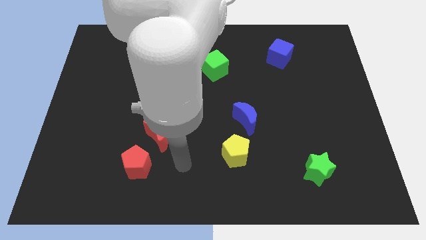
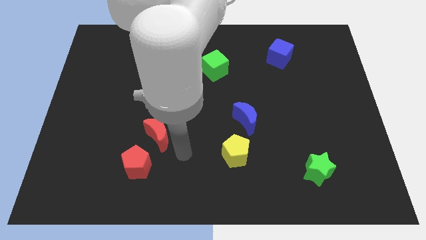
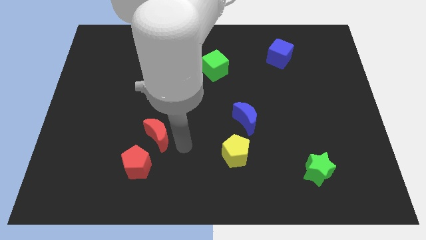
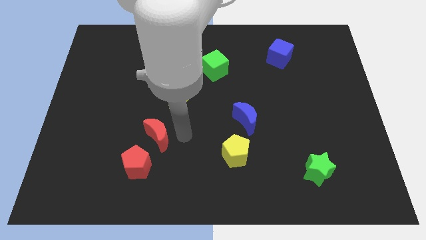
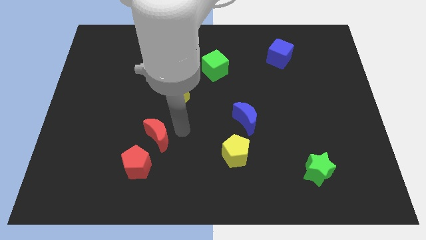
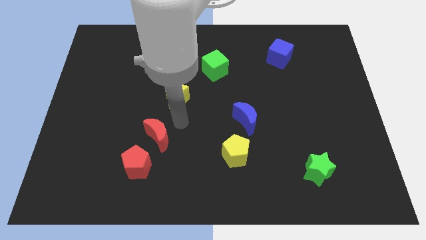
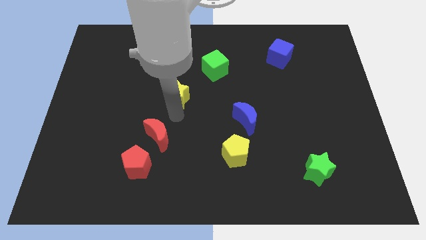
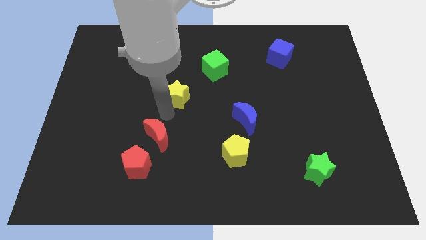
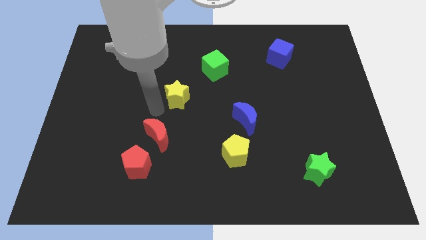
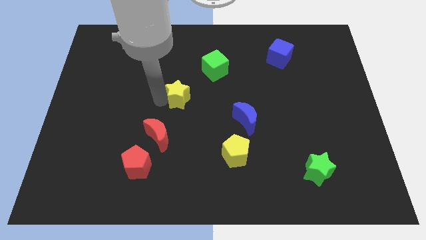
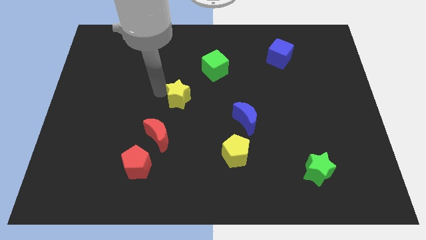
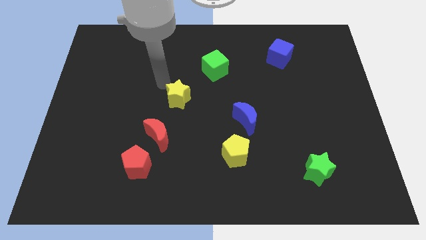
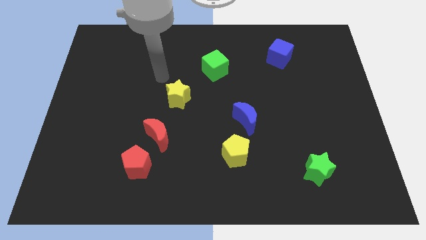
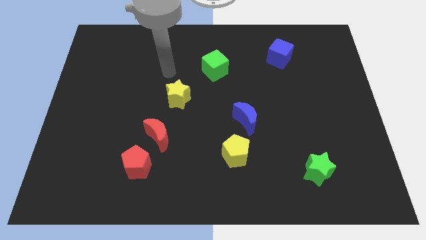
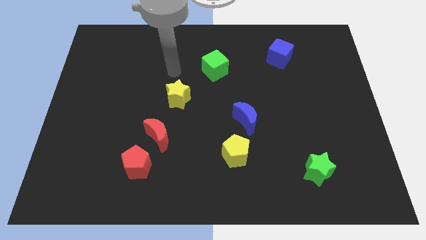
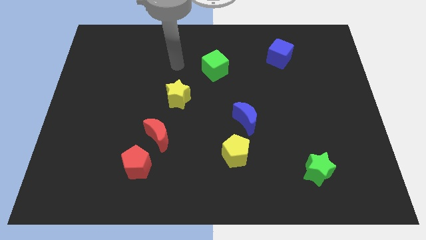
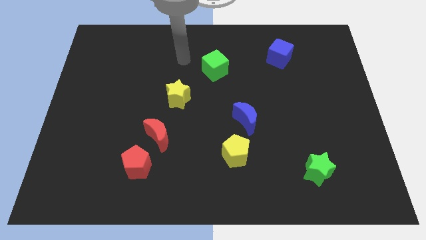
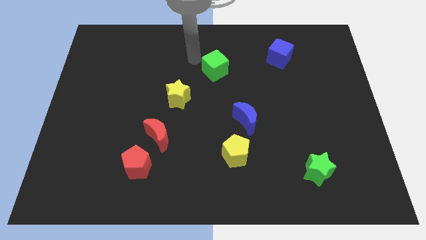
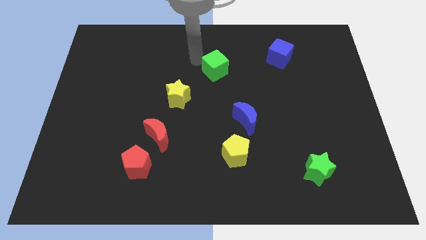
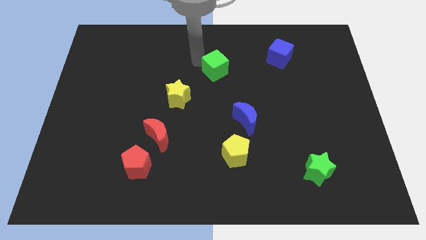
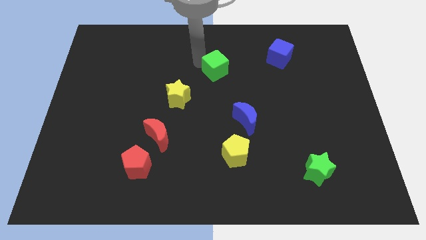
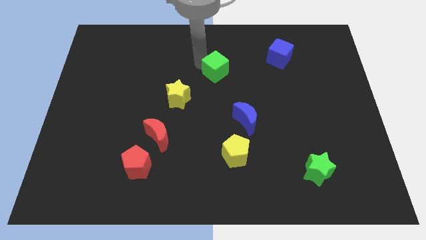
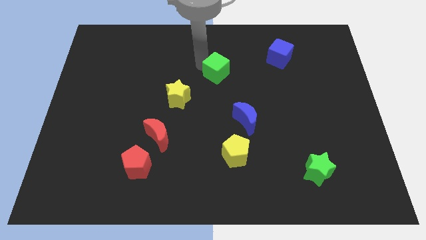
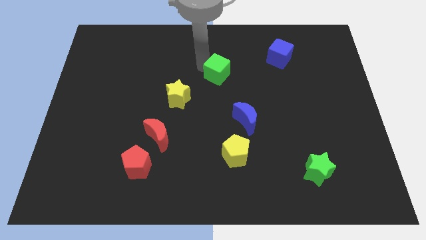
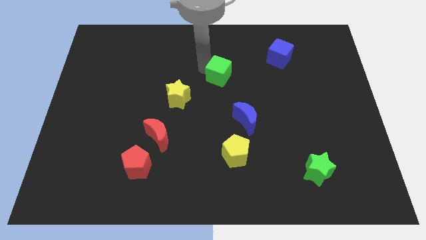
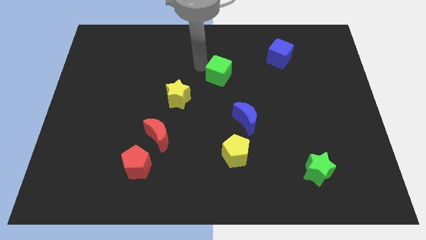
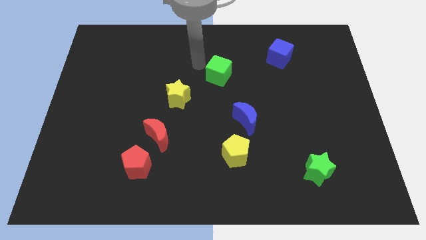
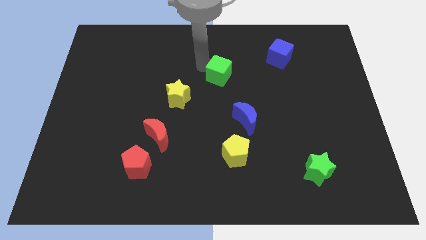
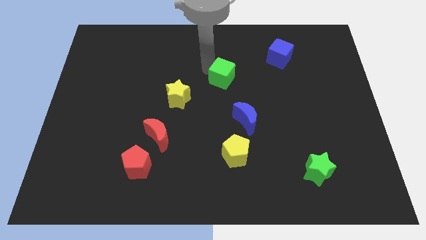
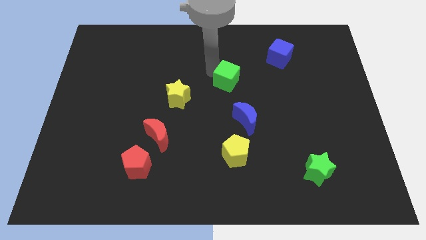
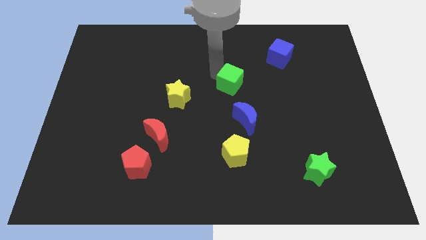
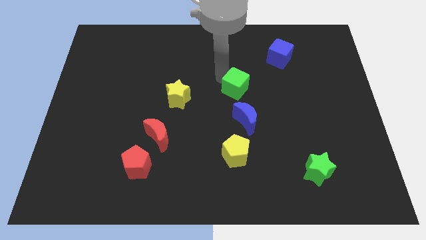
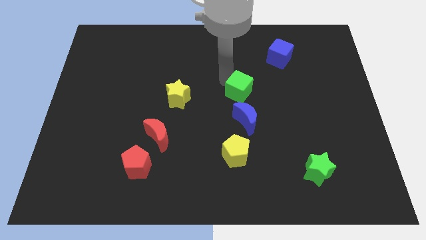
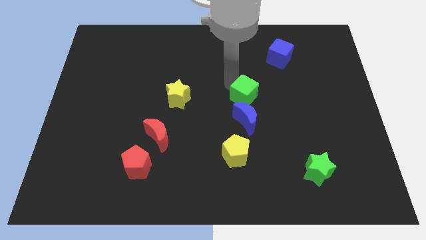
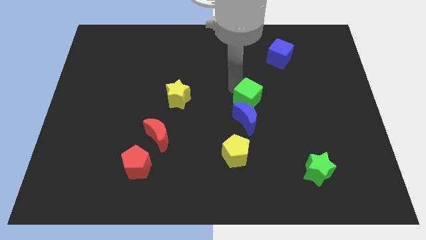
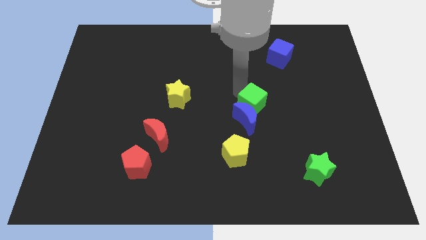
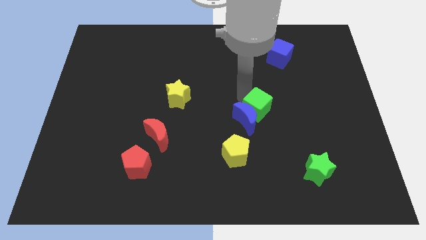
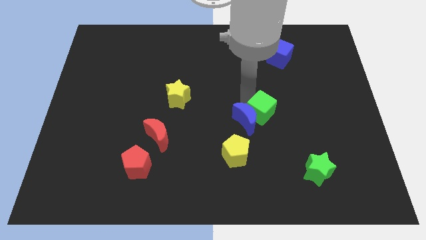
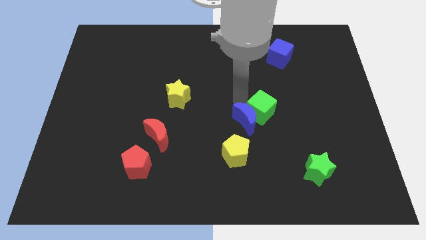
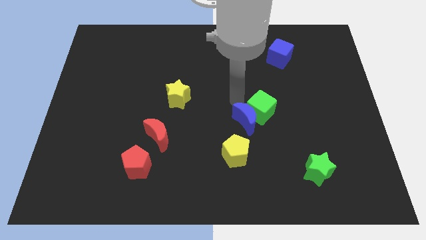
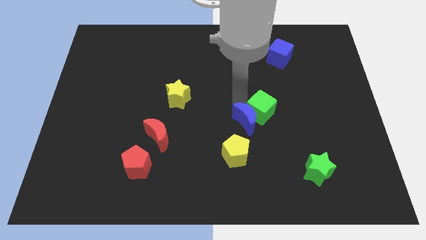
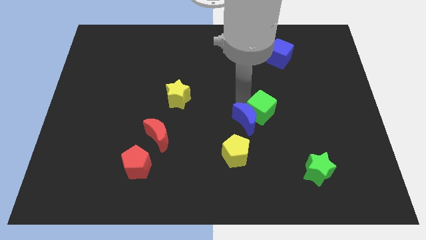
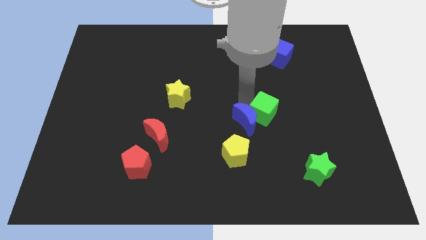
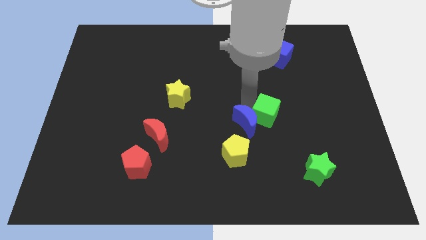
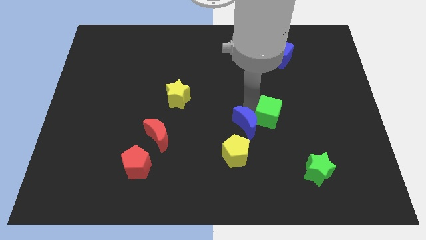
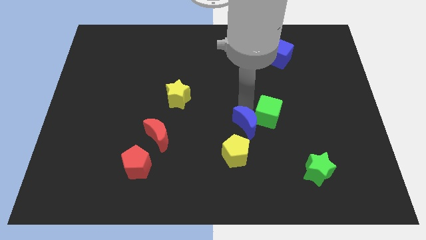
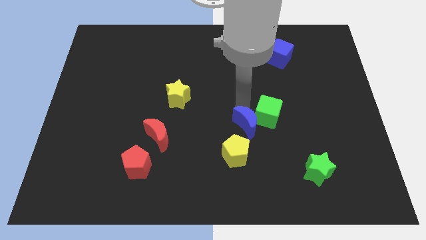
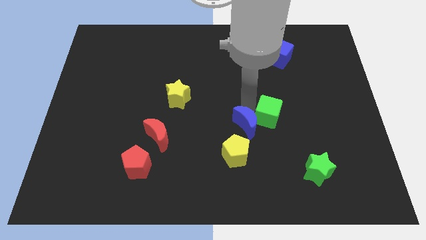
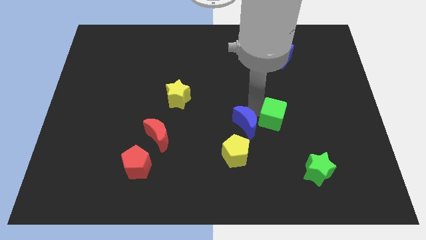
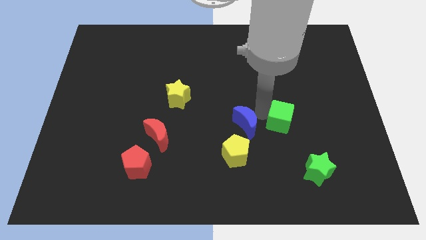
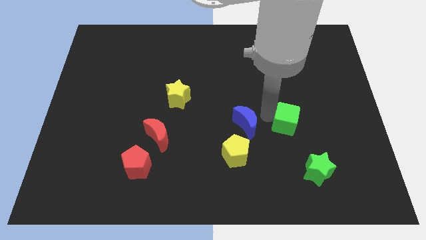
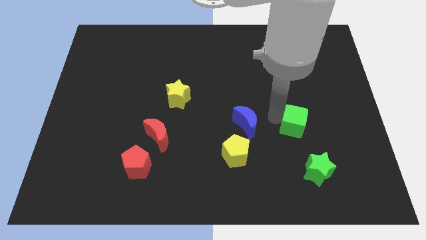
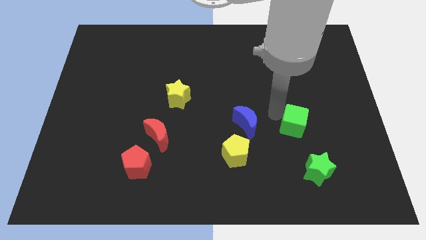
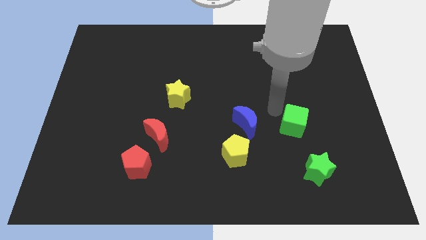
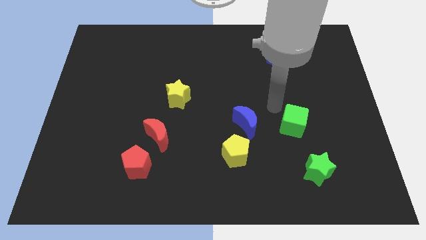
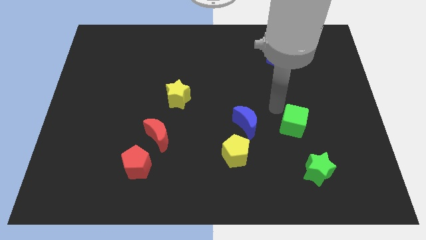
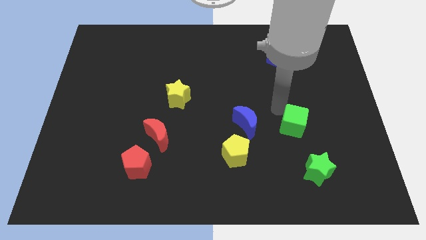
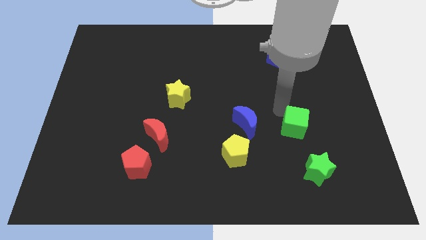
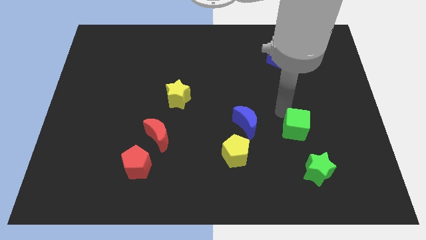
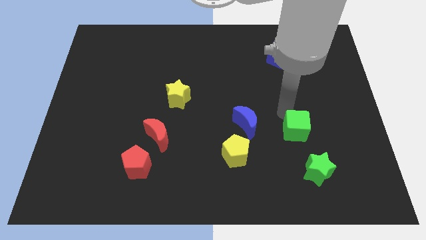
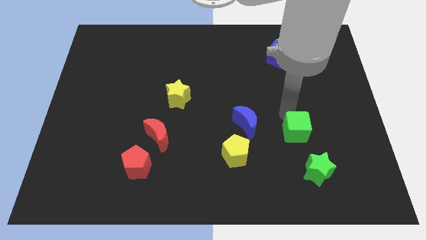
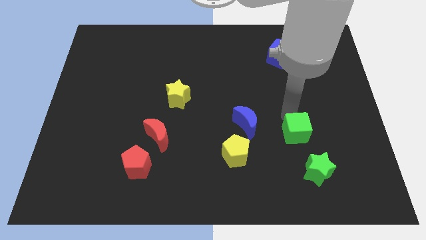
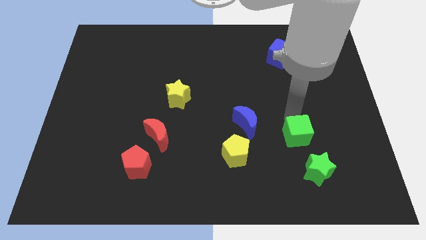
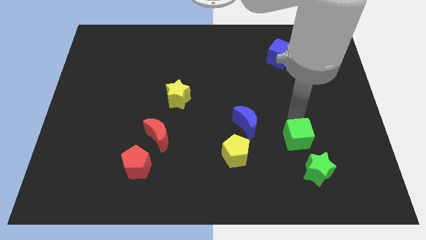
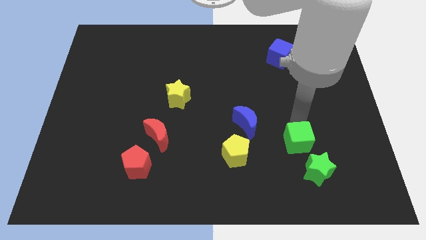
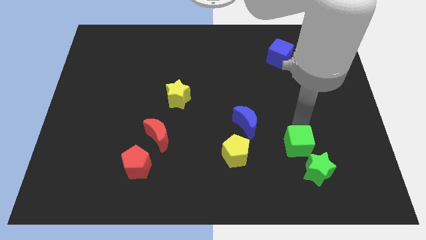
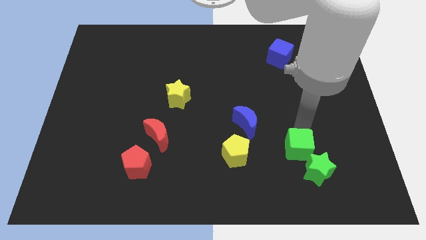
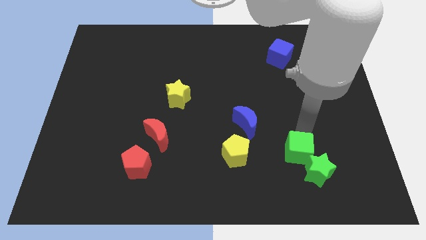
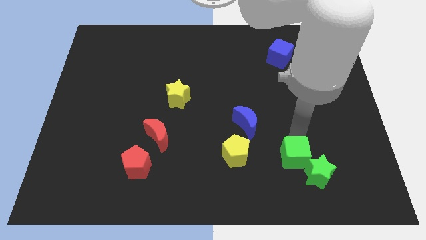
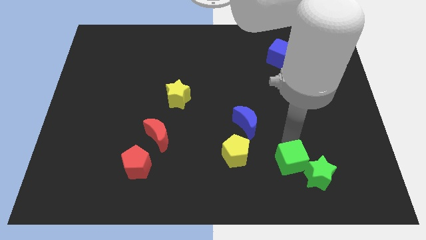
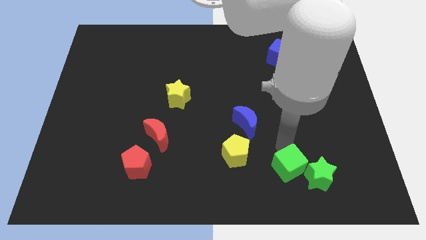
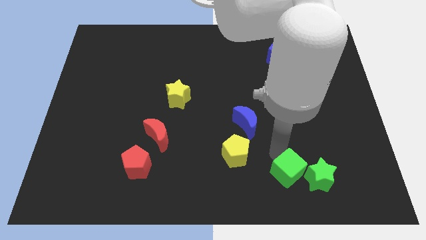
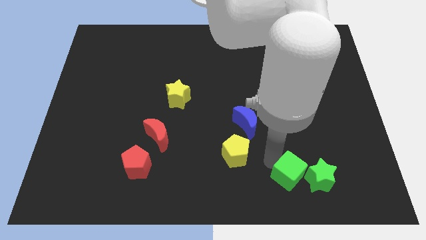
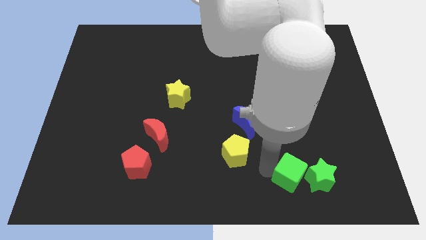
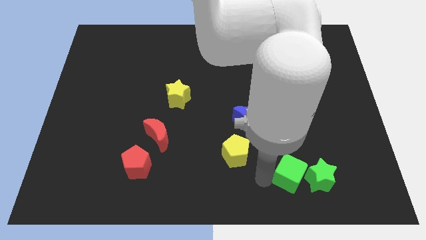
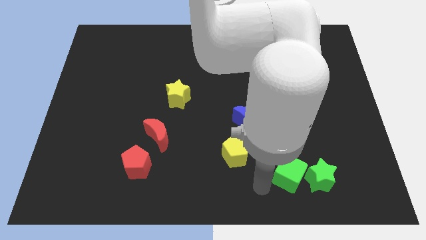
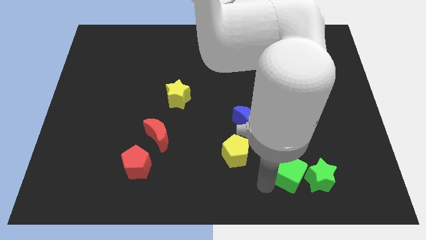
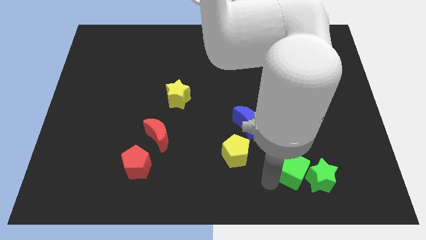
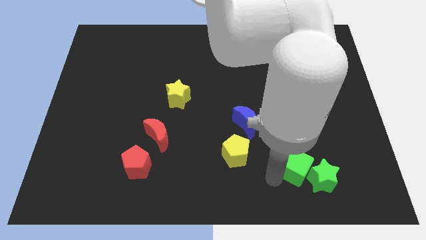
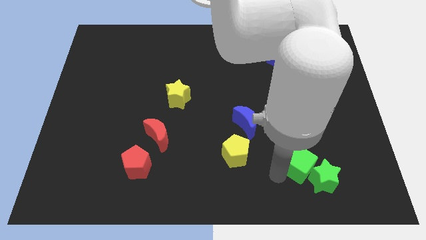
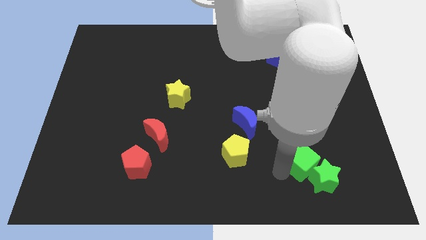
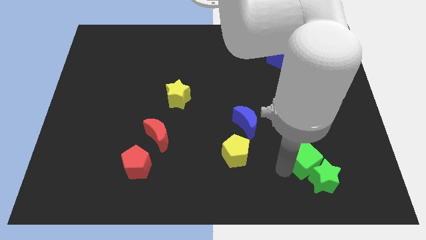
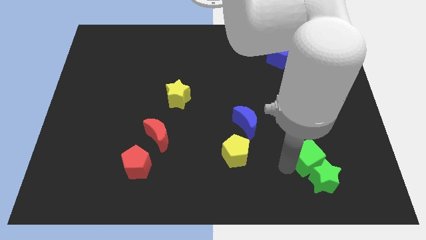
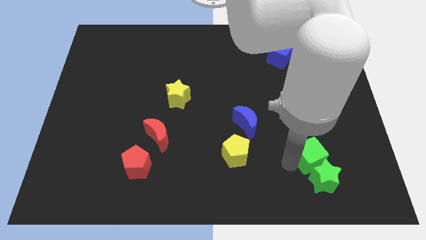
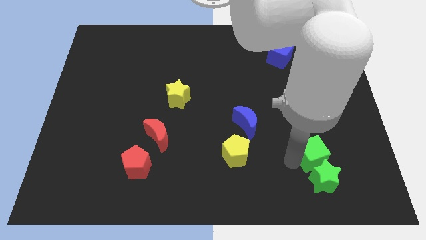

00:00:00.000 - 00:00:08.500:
slide the green cube diagonally up and to the right of the green star
